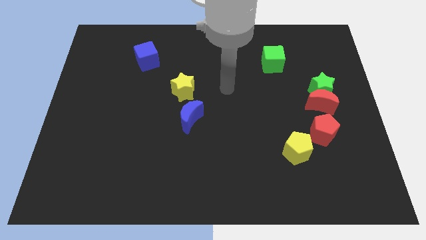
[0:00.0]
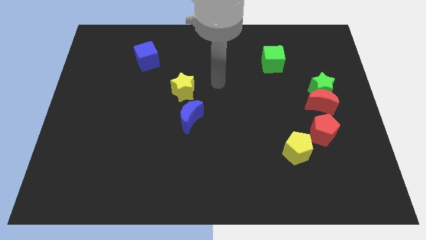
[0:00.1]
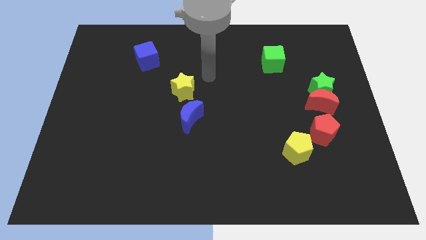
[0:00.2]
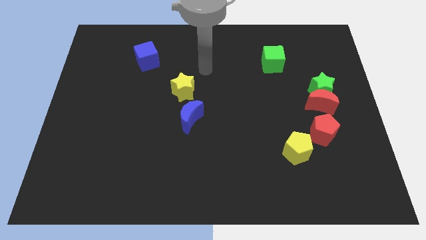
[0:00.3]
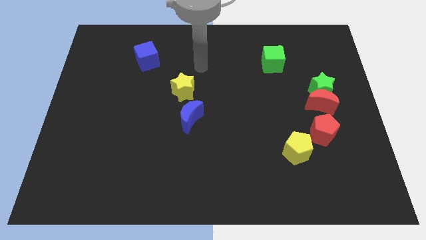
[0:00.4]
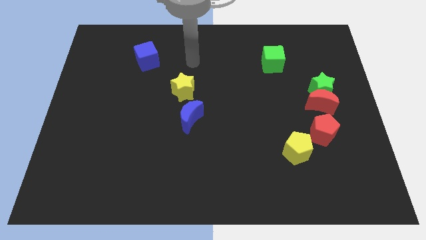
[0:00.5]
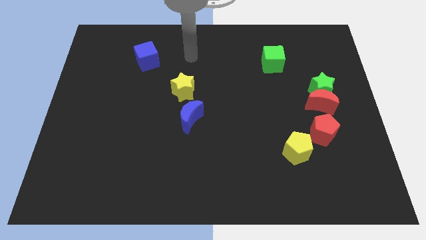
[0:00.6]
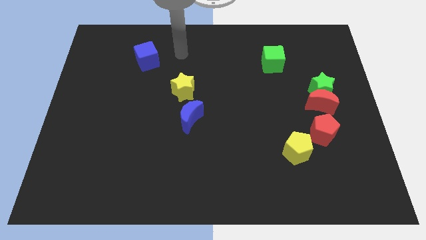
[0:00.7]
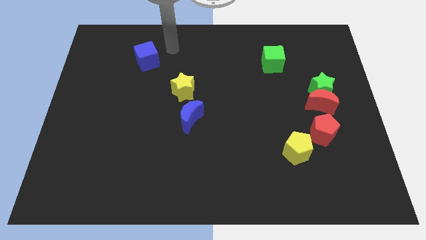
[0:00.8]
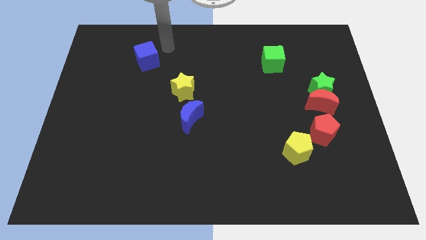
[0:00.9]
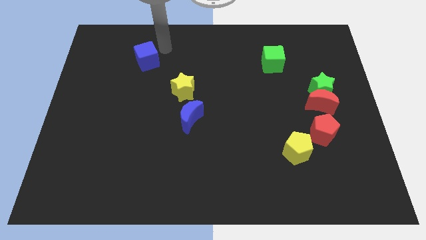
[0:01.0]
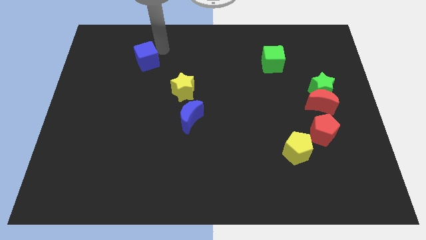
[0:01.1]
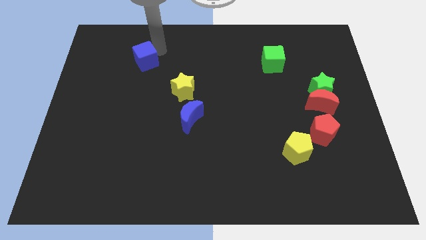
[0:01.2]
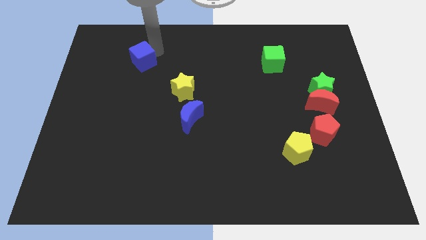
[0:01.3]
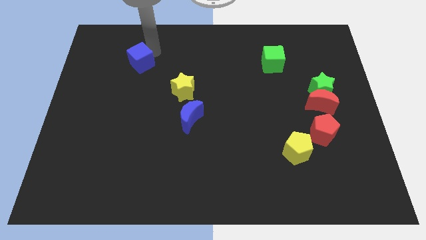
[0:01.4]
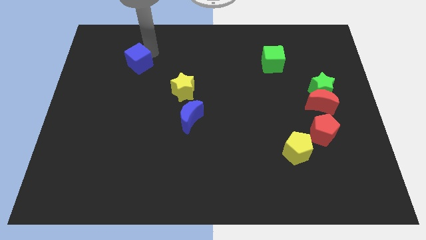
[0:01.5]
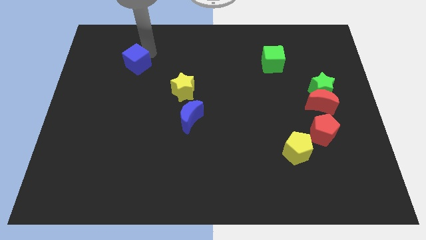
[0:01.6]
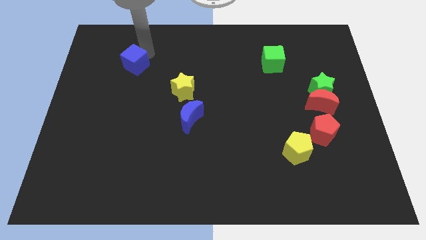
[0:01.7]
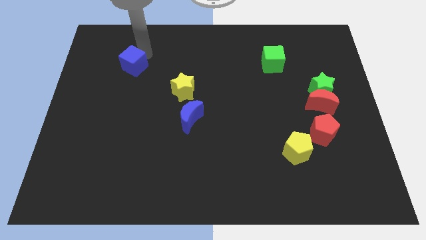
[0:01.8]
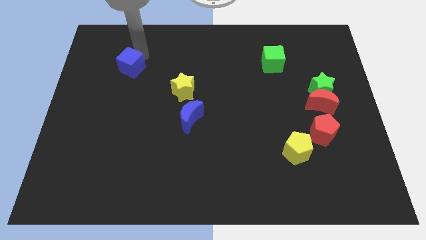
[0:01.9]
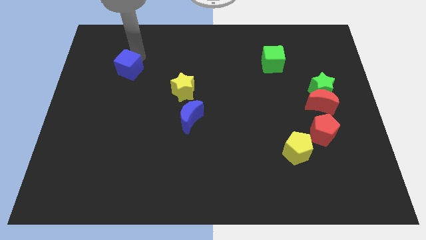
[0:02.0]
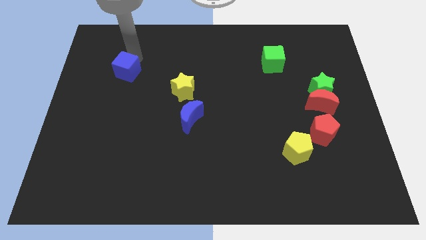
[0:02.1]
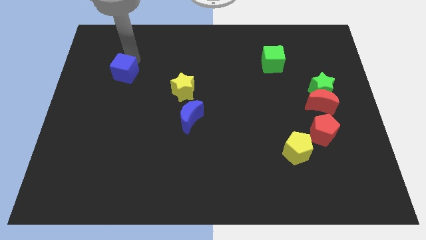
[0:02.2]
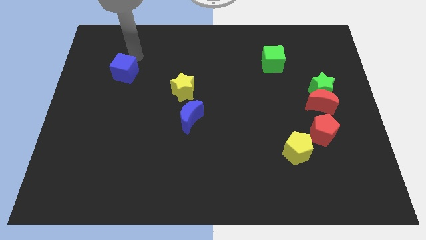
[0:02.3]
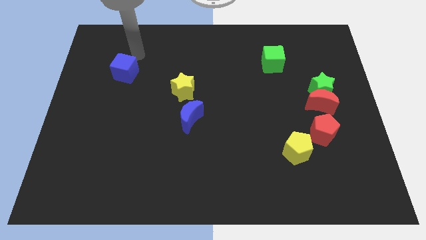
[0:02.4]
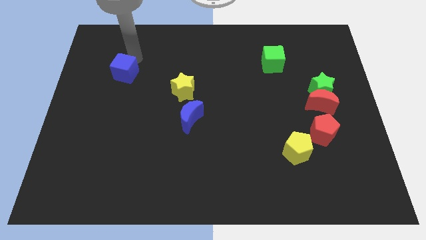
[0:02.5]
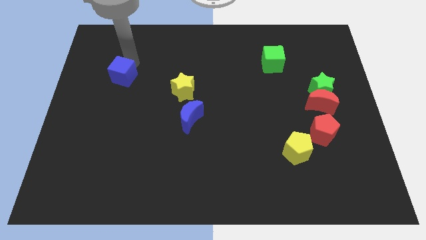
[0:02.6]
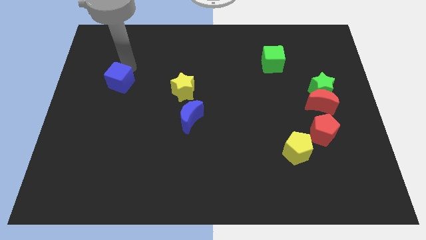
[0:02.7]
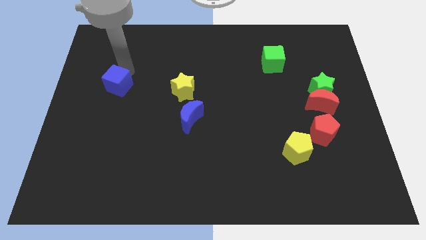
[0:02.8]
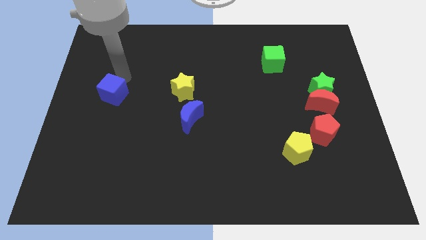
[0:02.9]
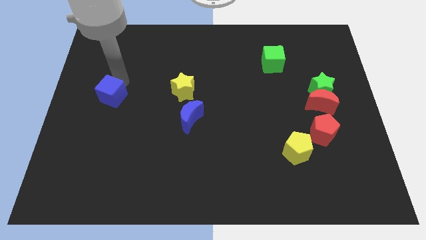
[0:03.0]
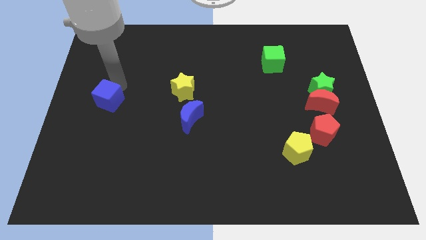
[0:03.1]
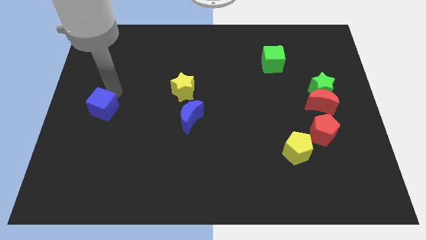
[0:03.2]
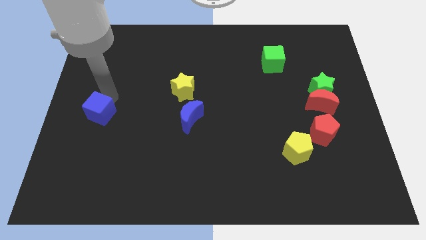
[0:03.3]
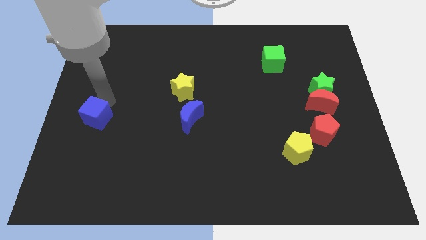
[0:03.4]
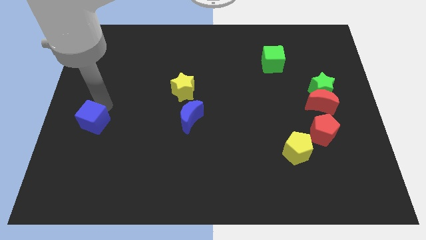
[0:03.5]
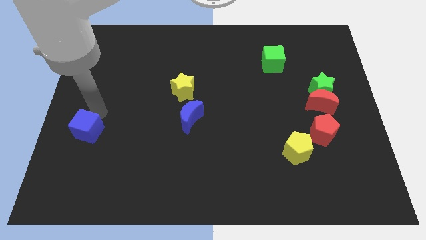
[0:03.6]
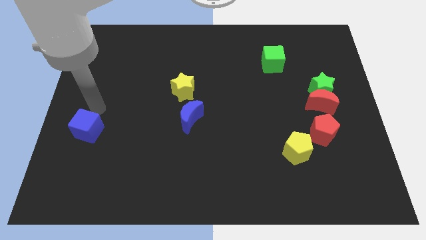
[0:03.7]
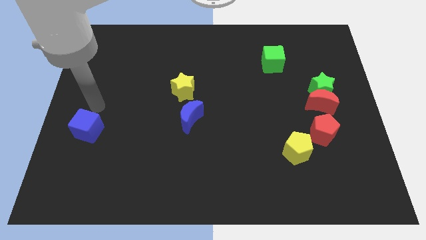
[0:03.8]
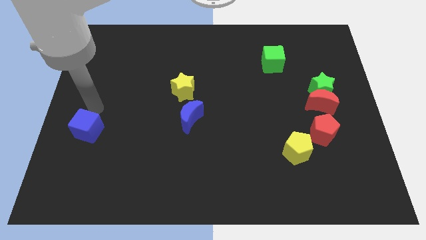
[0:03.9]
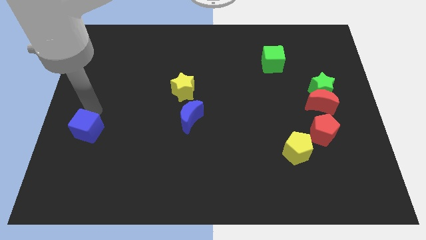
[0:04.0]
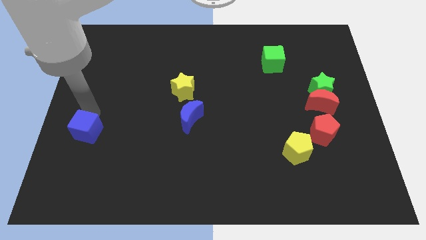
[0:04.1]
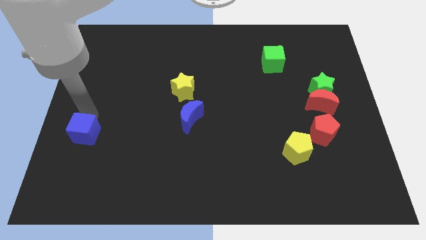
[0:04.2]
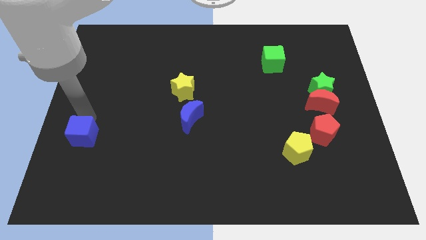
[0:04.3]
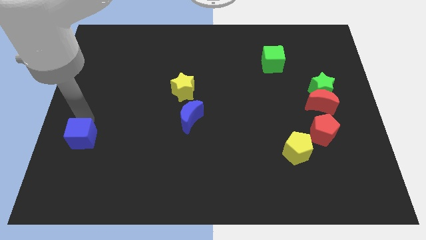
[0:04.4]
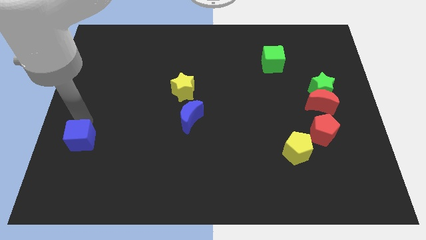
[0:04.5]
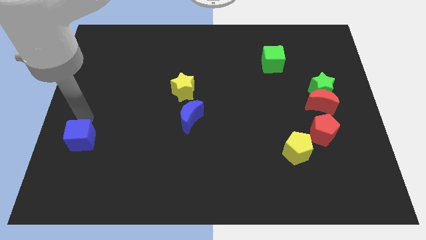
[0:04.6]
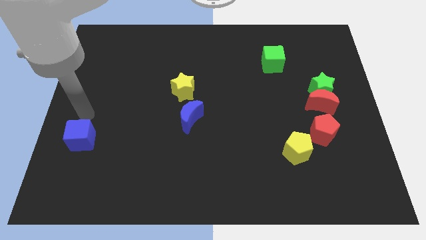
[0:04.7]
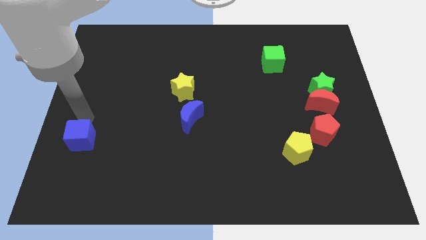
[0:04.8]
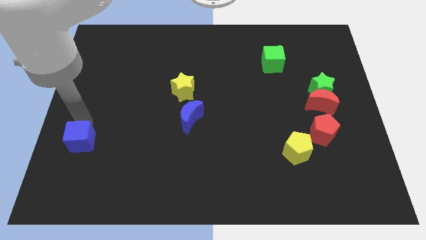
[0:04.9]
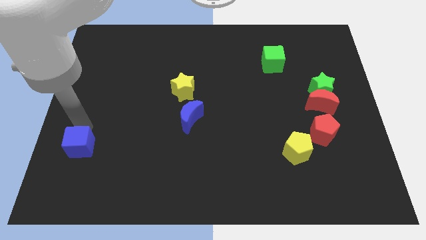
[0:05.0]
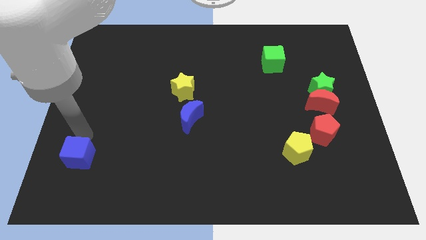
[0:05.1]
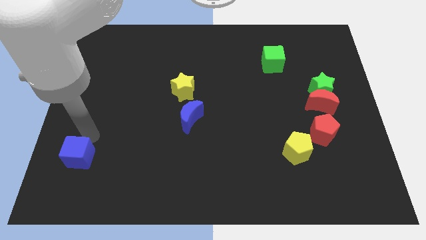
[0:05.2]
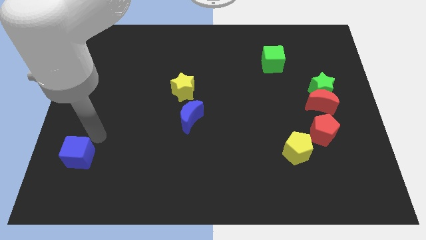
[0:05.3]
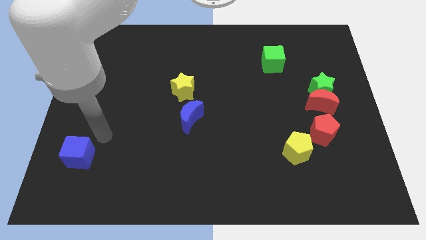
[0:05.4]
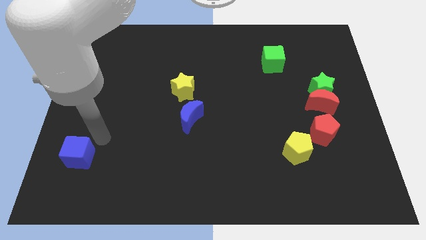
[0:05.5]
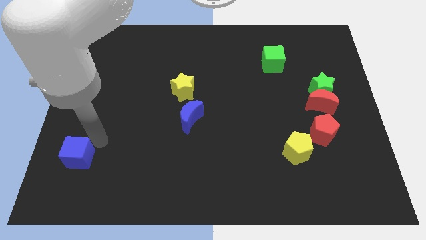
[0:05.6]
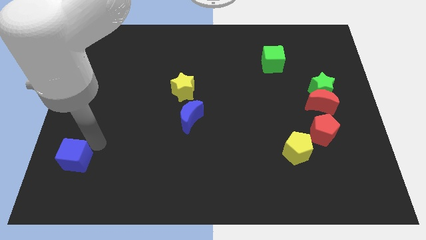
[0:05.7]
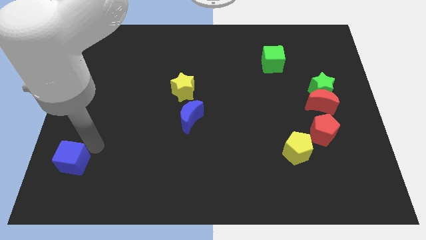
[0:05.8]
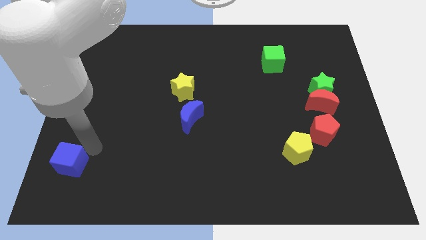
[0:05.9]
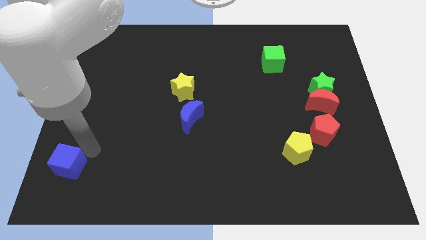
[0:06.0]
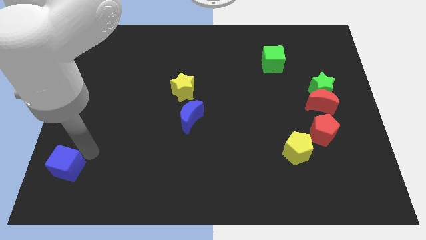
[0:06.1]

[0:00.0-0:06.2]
push the blue cube to the bottom left
